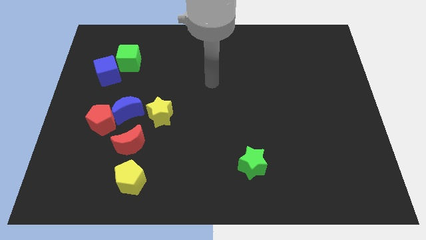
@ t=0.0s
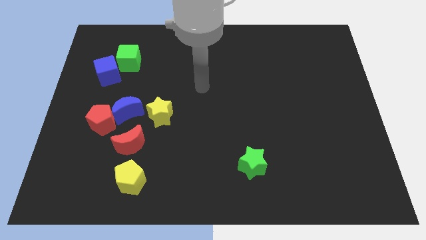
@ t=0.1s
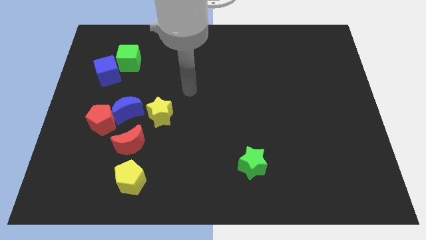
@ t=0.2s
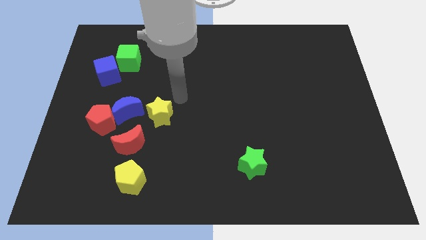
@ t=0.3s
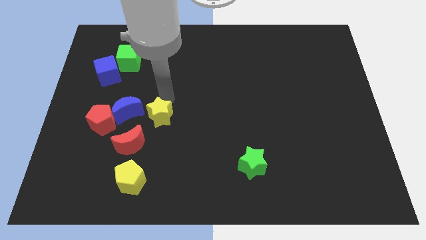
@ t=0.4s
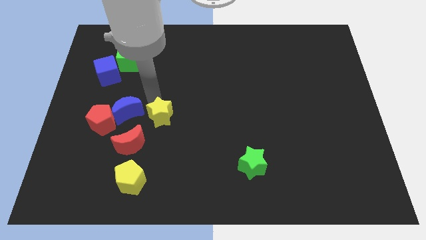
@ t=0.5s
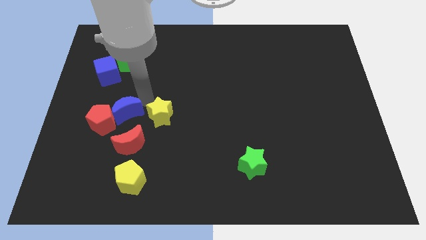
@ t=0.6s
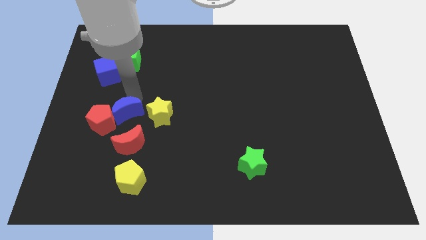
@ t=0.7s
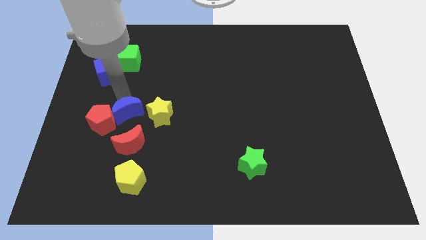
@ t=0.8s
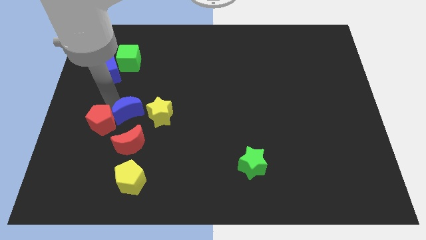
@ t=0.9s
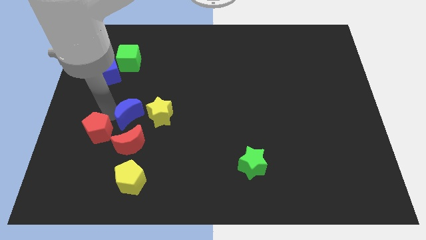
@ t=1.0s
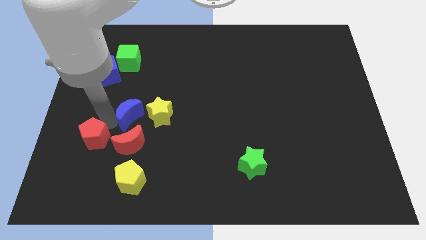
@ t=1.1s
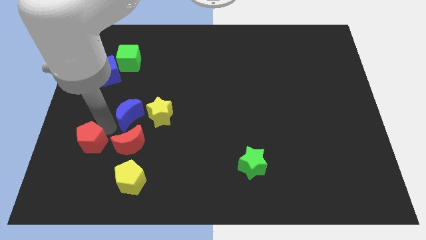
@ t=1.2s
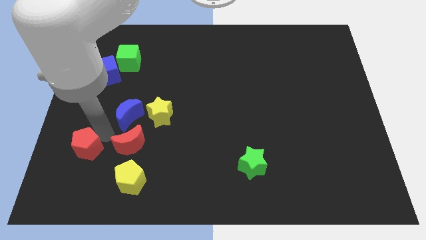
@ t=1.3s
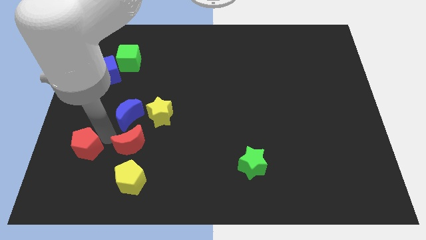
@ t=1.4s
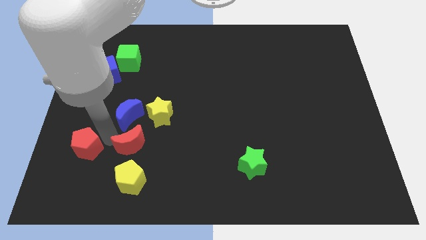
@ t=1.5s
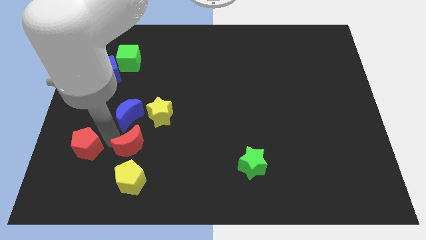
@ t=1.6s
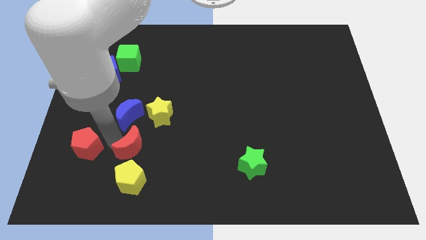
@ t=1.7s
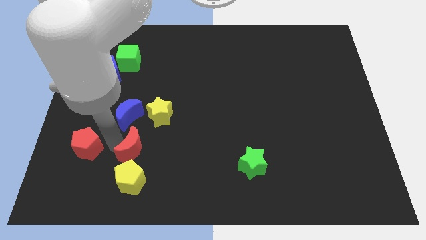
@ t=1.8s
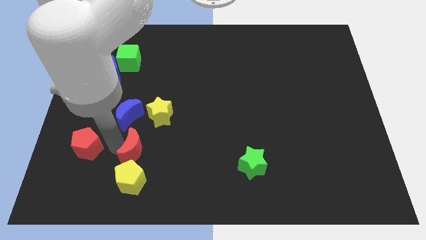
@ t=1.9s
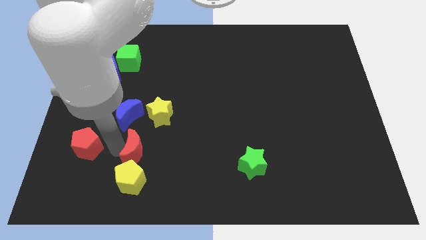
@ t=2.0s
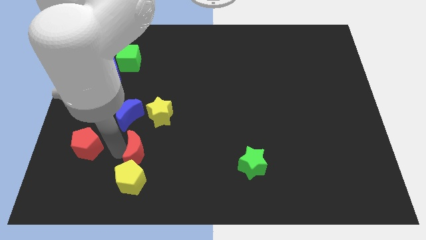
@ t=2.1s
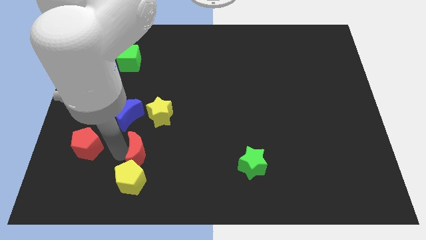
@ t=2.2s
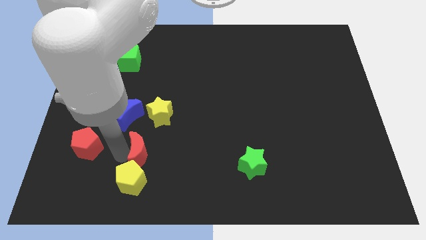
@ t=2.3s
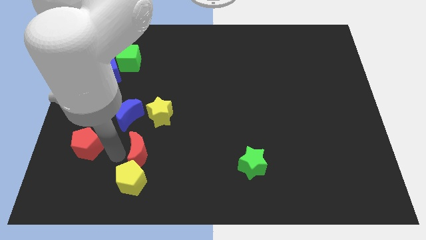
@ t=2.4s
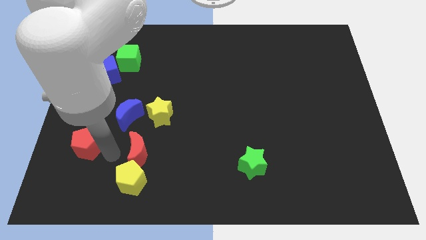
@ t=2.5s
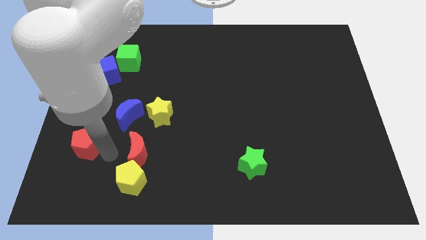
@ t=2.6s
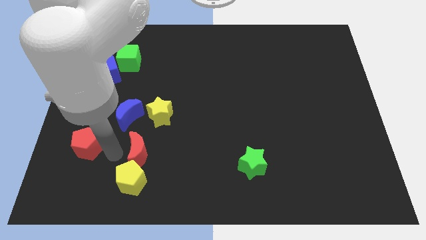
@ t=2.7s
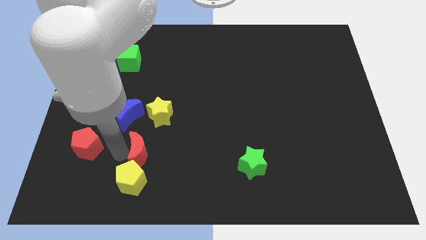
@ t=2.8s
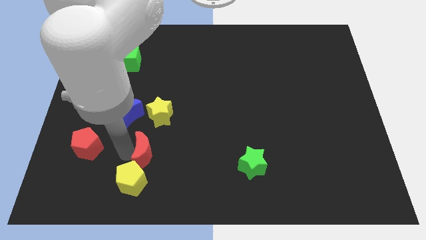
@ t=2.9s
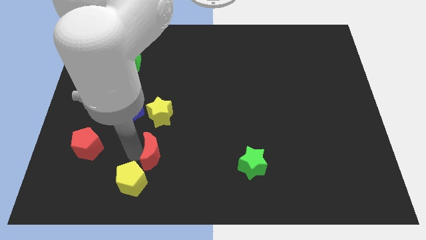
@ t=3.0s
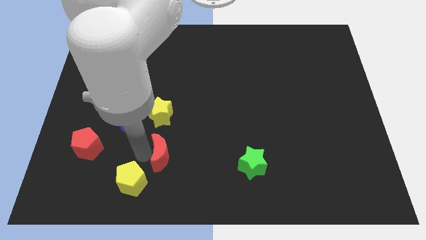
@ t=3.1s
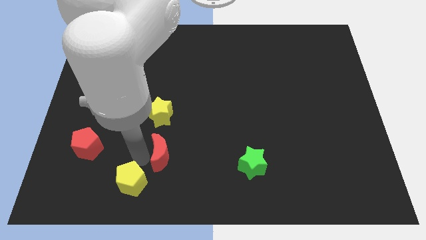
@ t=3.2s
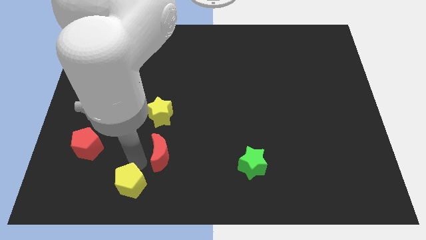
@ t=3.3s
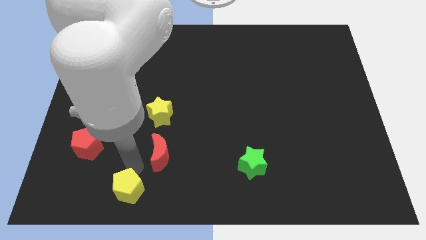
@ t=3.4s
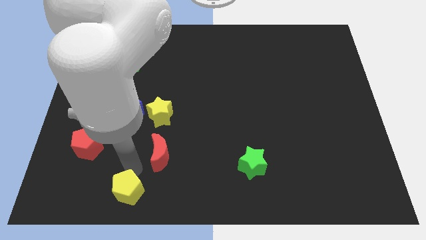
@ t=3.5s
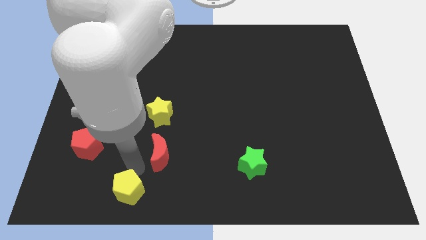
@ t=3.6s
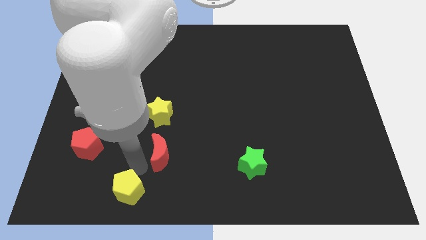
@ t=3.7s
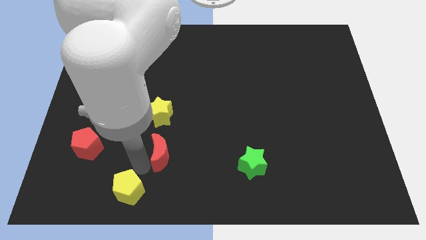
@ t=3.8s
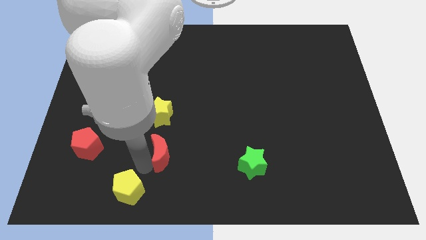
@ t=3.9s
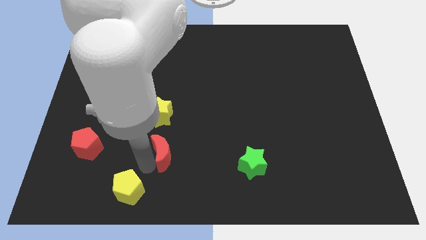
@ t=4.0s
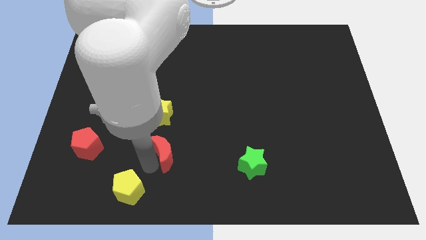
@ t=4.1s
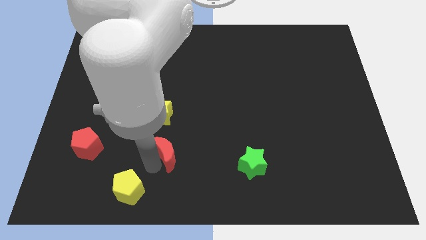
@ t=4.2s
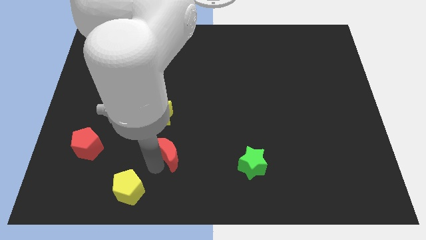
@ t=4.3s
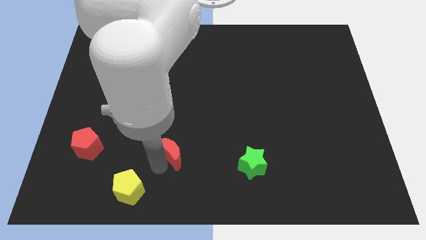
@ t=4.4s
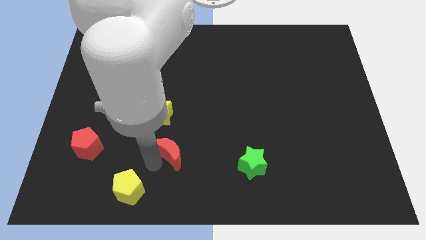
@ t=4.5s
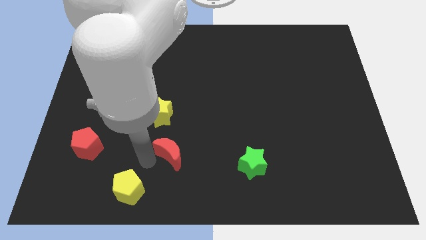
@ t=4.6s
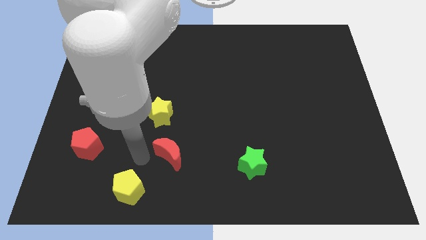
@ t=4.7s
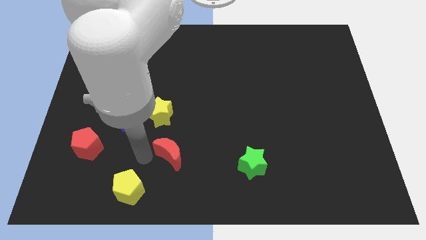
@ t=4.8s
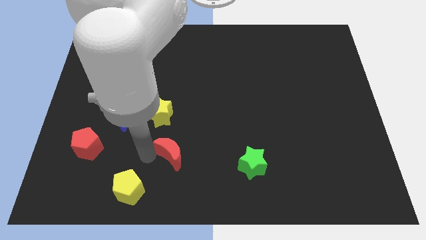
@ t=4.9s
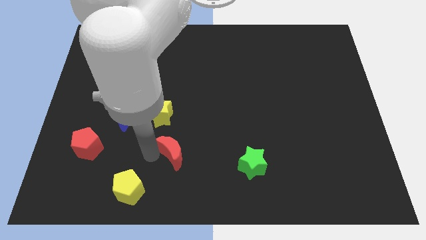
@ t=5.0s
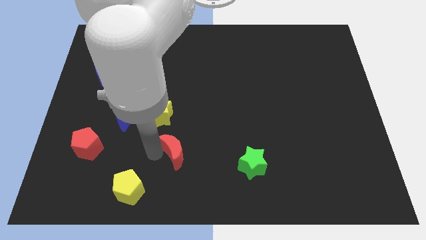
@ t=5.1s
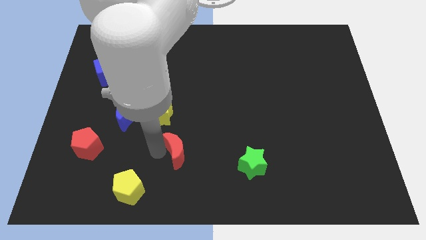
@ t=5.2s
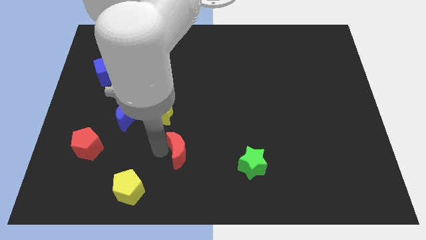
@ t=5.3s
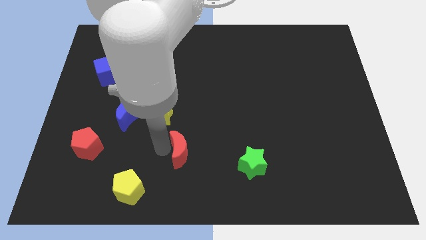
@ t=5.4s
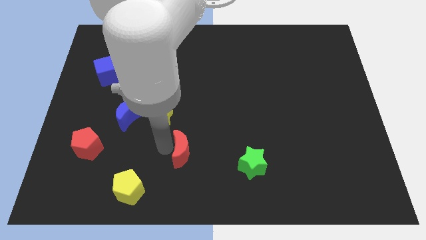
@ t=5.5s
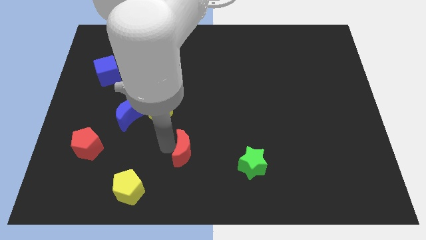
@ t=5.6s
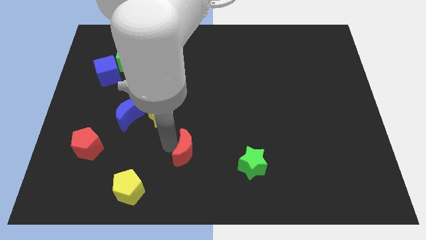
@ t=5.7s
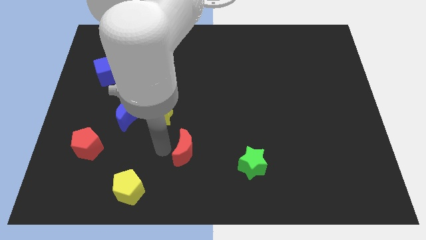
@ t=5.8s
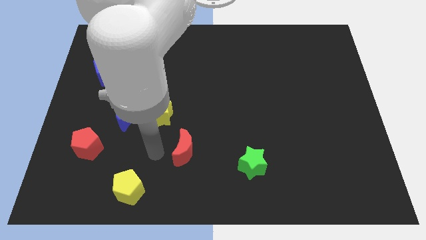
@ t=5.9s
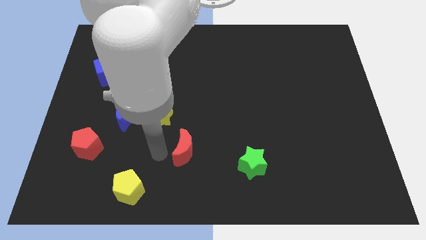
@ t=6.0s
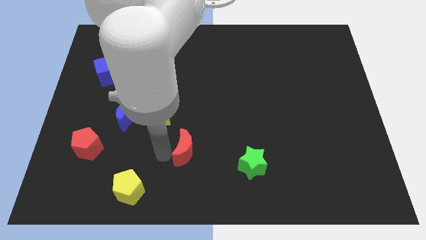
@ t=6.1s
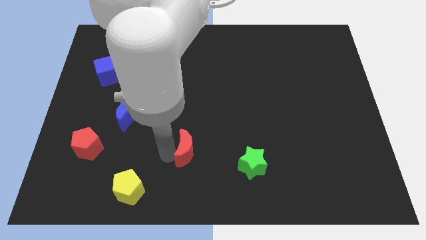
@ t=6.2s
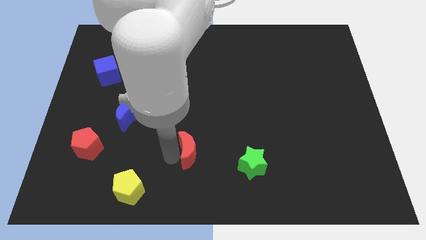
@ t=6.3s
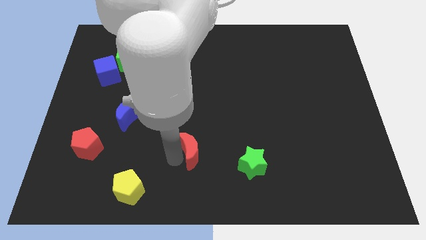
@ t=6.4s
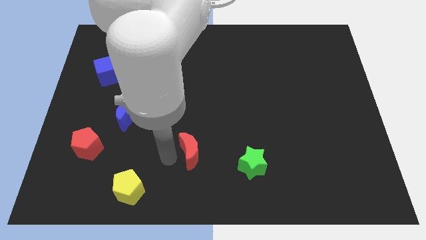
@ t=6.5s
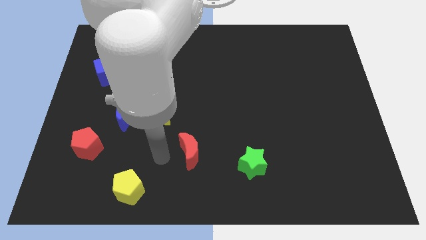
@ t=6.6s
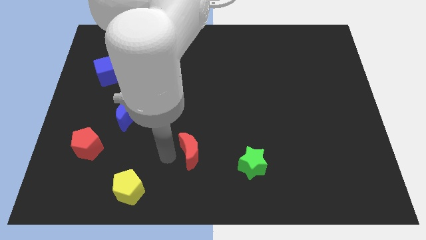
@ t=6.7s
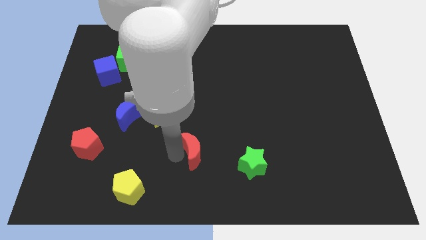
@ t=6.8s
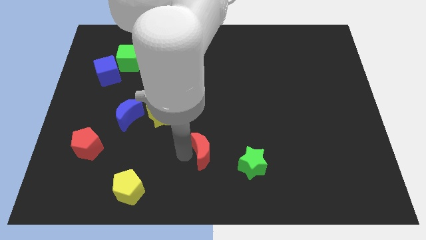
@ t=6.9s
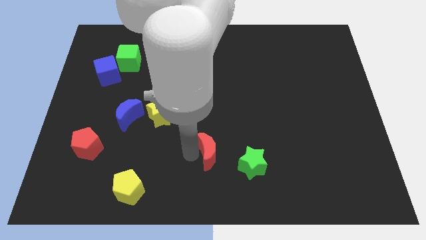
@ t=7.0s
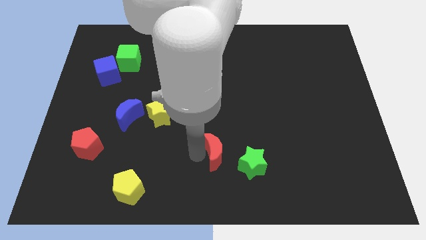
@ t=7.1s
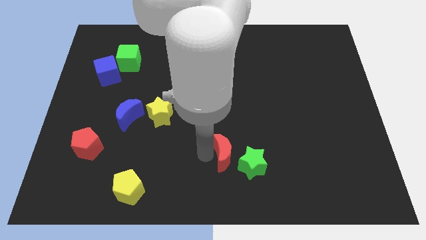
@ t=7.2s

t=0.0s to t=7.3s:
push the red moon right

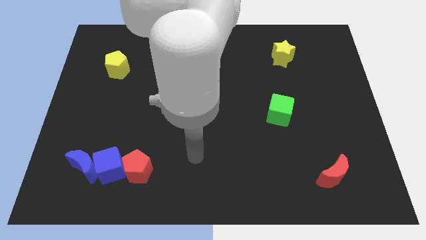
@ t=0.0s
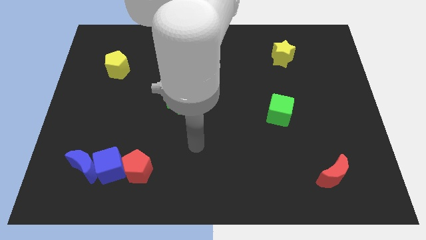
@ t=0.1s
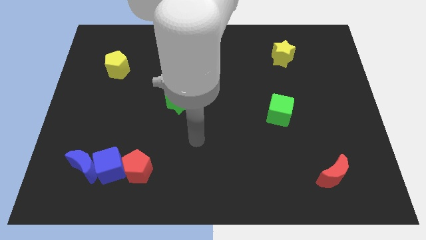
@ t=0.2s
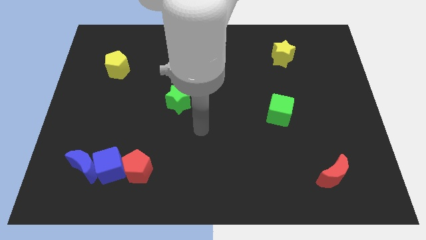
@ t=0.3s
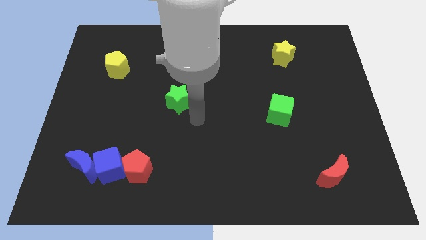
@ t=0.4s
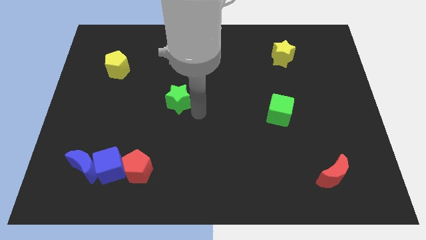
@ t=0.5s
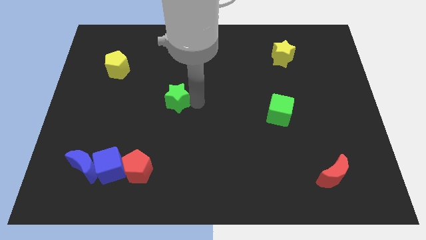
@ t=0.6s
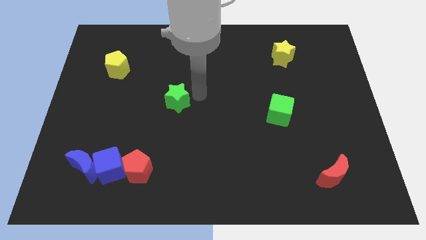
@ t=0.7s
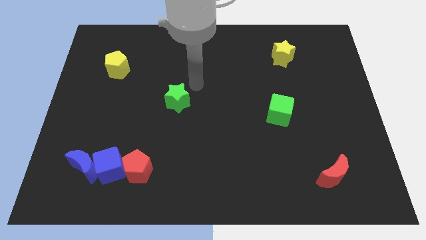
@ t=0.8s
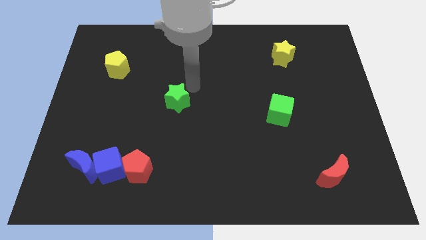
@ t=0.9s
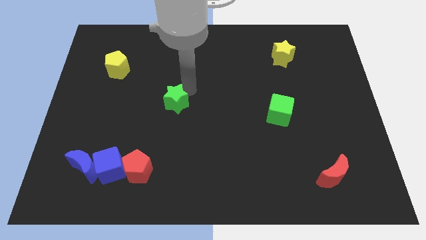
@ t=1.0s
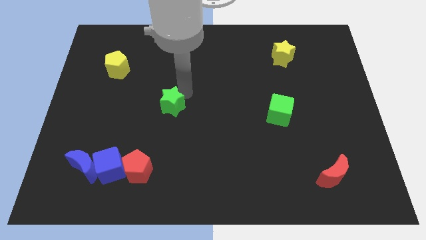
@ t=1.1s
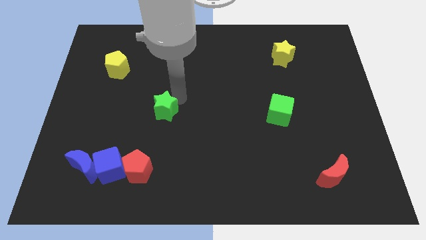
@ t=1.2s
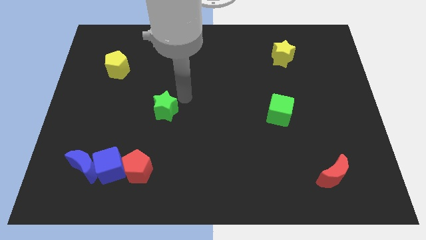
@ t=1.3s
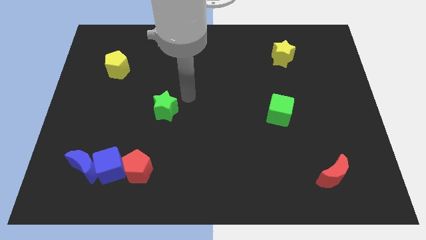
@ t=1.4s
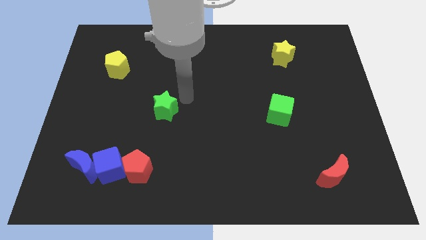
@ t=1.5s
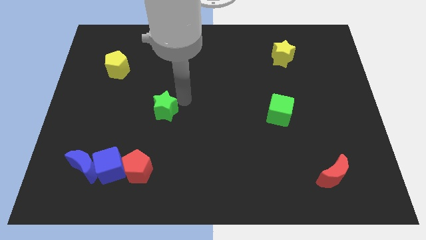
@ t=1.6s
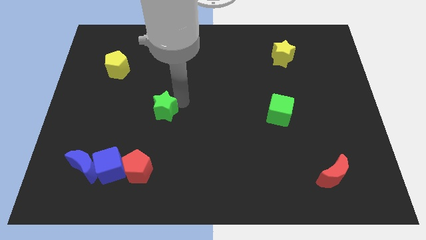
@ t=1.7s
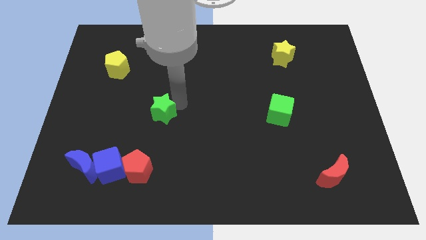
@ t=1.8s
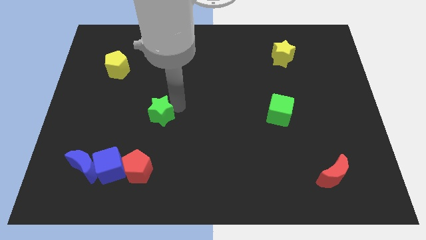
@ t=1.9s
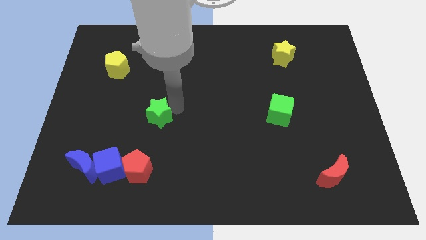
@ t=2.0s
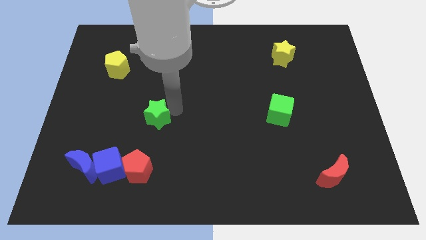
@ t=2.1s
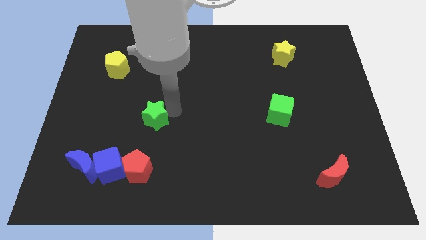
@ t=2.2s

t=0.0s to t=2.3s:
slightly push the green star downwards and to the left
